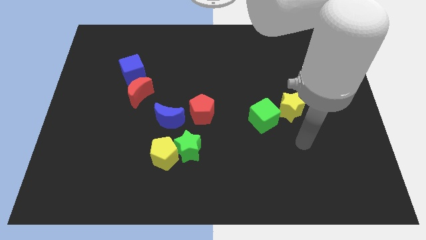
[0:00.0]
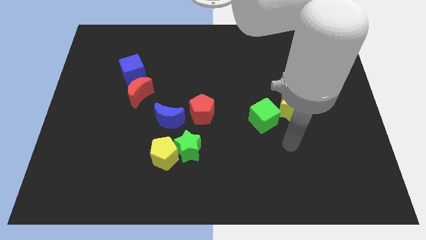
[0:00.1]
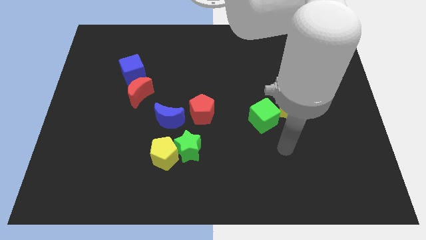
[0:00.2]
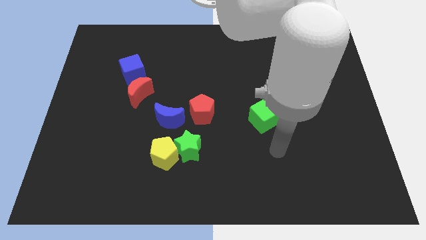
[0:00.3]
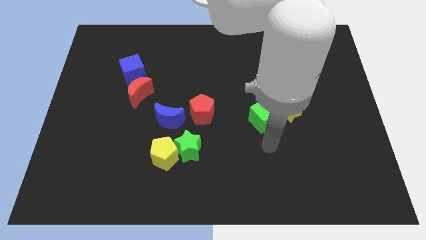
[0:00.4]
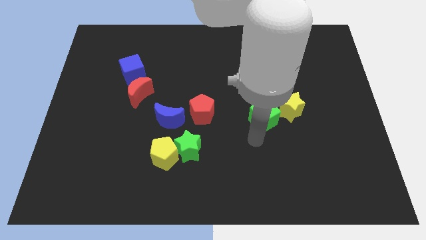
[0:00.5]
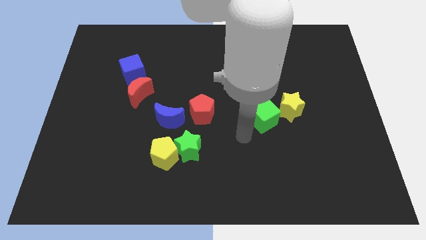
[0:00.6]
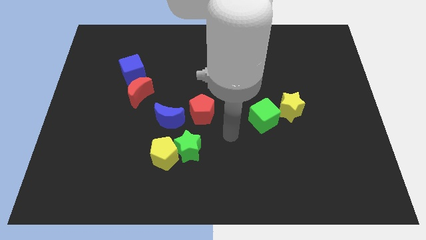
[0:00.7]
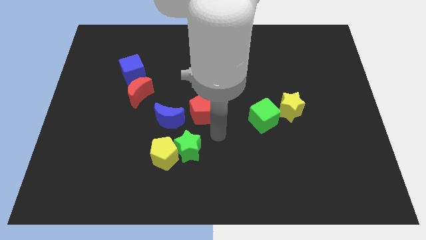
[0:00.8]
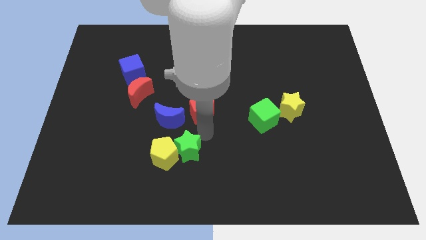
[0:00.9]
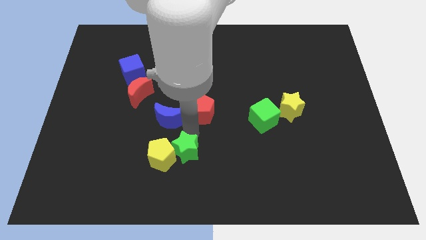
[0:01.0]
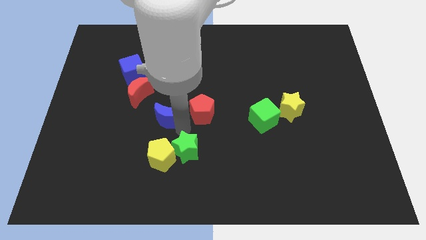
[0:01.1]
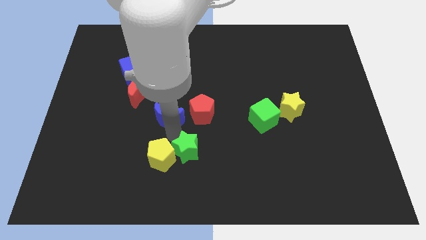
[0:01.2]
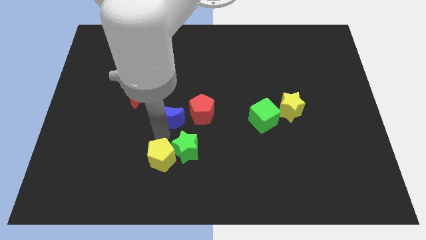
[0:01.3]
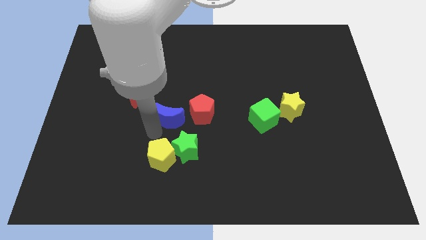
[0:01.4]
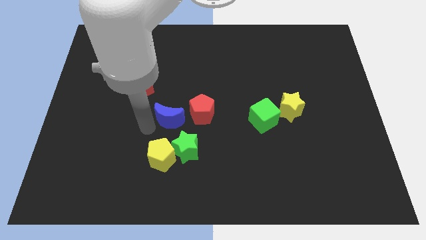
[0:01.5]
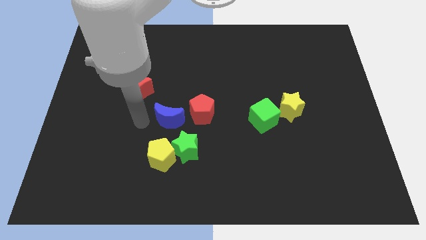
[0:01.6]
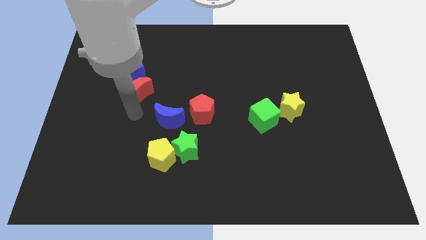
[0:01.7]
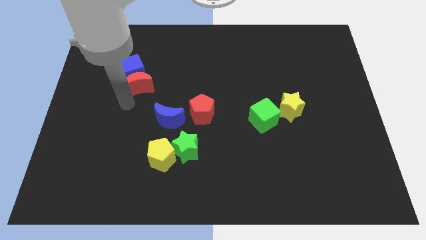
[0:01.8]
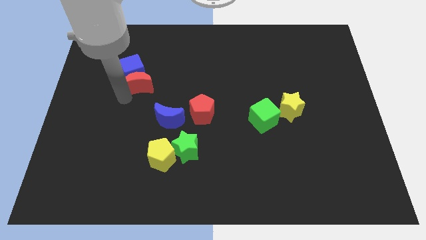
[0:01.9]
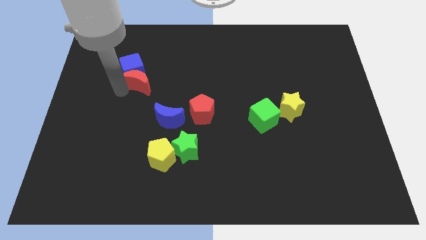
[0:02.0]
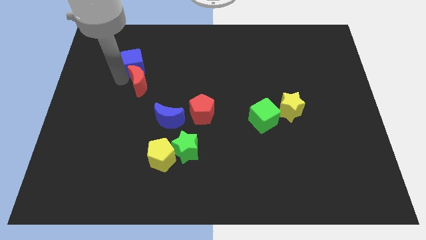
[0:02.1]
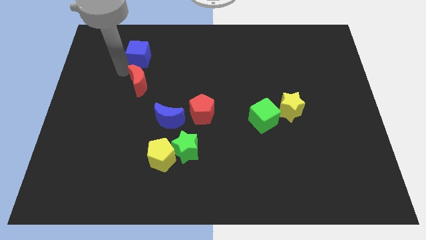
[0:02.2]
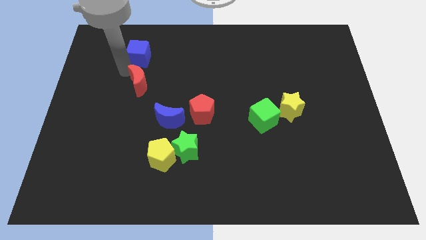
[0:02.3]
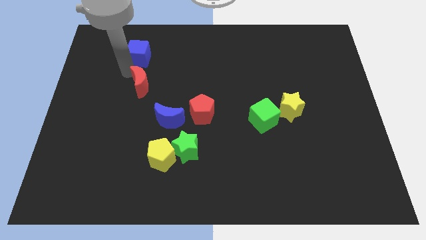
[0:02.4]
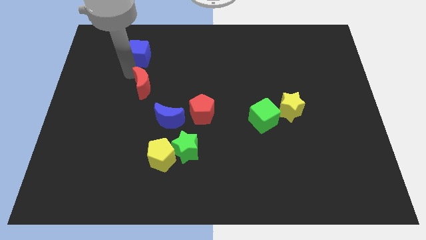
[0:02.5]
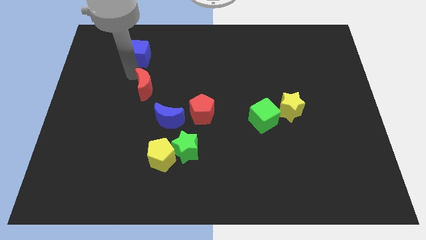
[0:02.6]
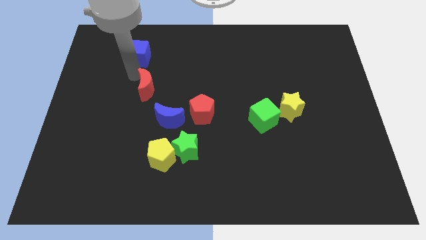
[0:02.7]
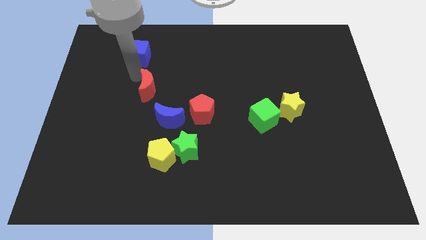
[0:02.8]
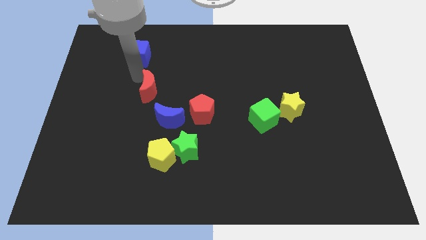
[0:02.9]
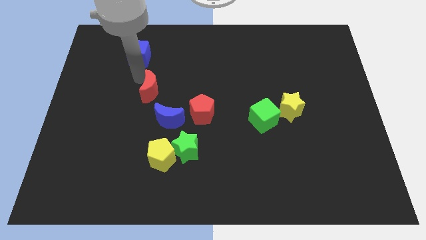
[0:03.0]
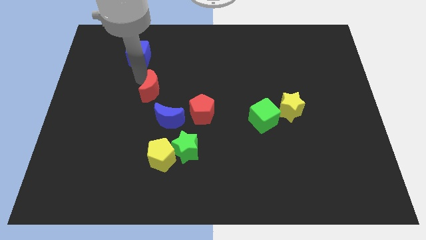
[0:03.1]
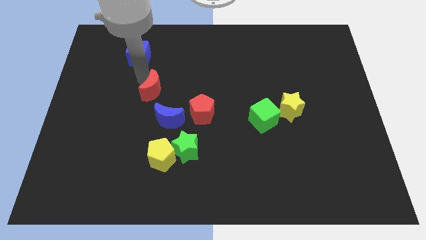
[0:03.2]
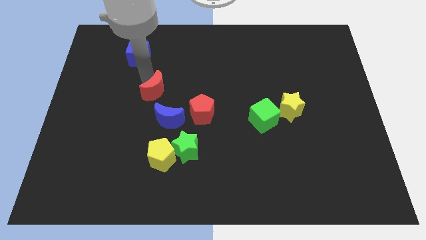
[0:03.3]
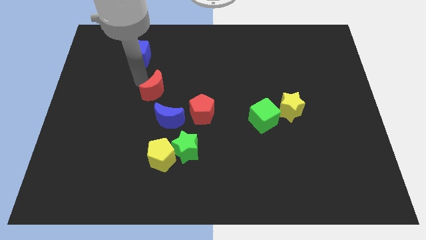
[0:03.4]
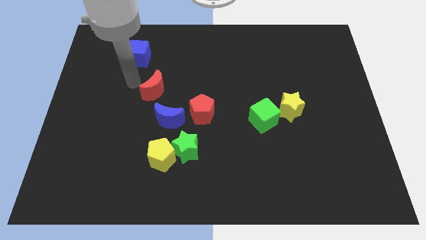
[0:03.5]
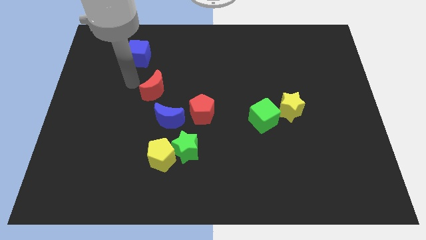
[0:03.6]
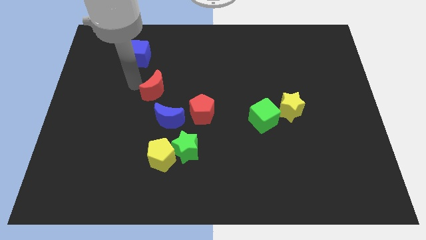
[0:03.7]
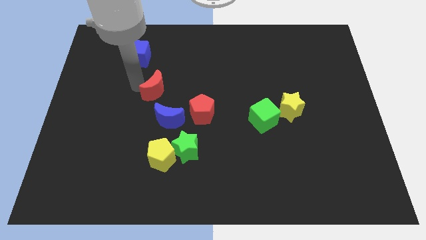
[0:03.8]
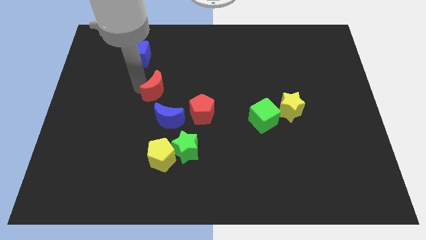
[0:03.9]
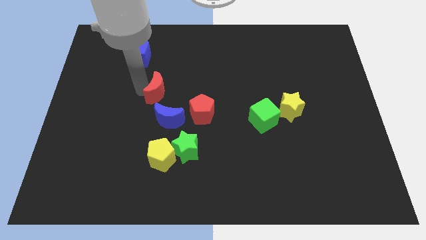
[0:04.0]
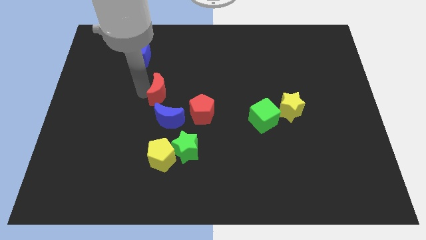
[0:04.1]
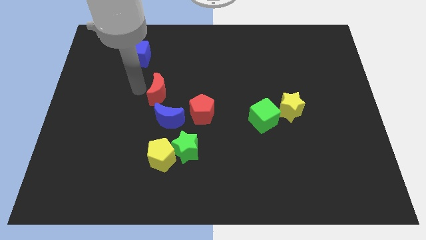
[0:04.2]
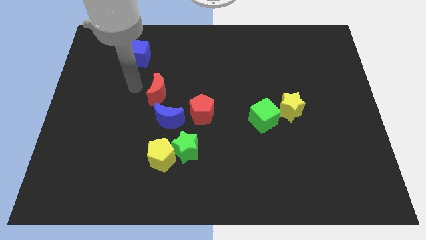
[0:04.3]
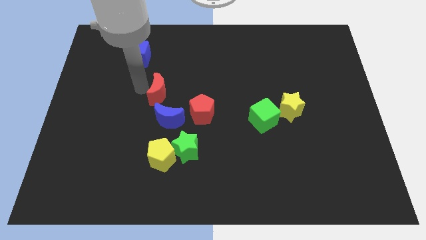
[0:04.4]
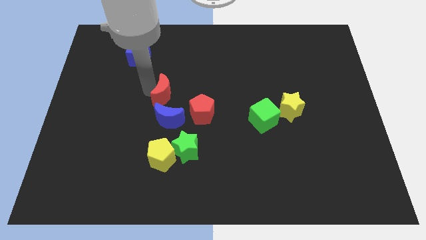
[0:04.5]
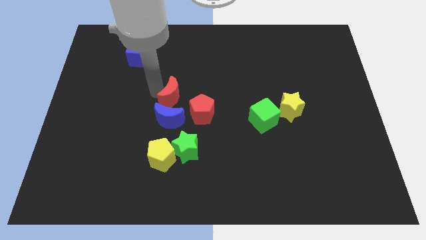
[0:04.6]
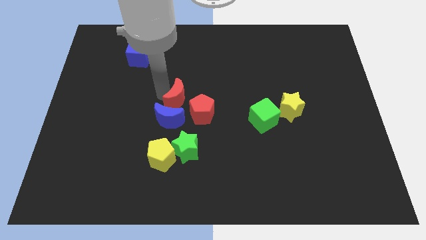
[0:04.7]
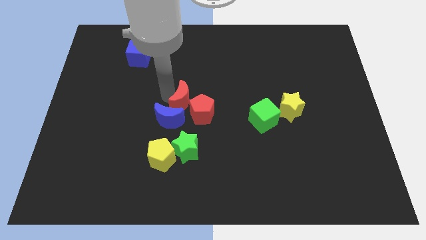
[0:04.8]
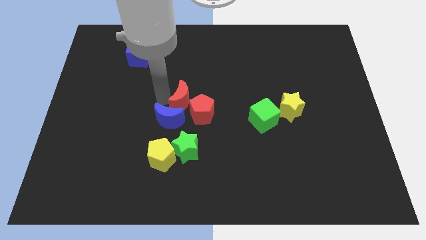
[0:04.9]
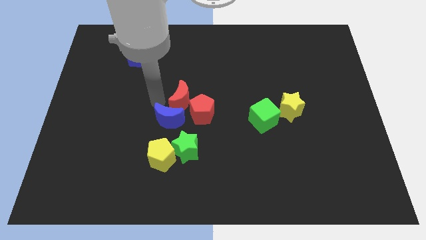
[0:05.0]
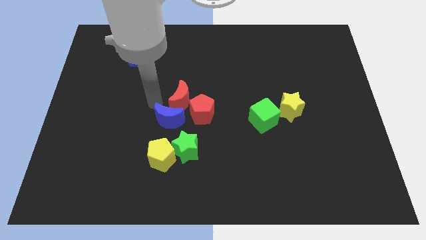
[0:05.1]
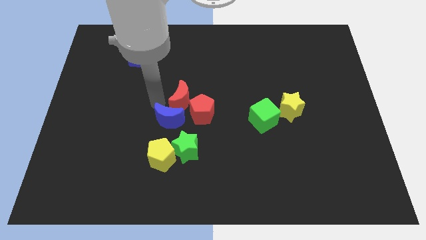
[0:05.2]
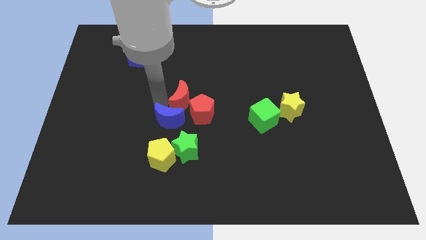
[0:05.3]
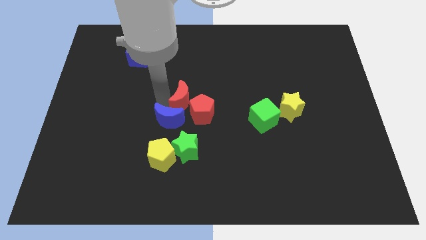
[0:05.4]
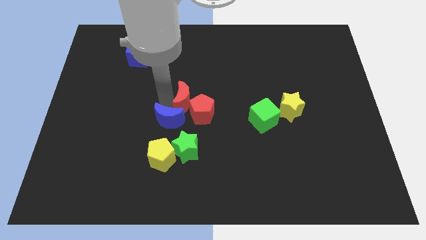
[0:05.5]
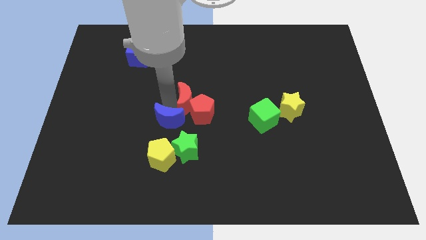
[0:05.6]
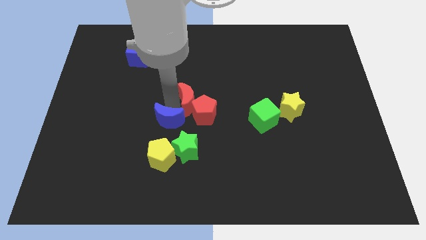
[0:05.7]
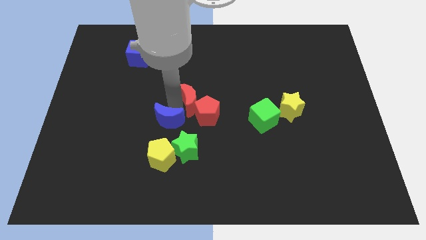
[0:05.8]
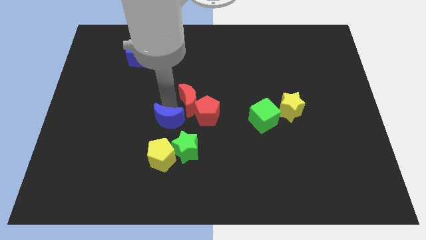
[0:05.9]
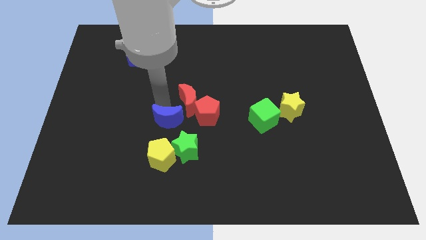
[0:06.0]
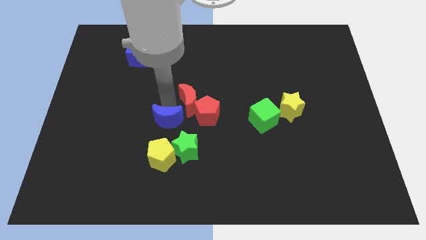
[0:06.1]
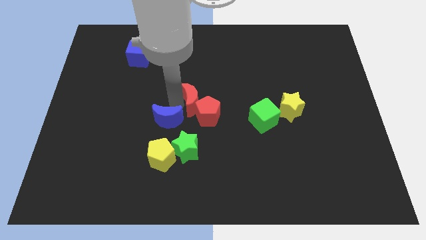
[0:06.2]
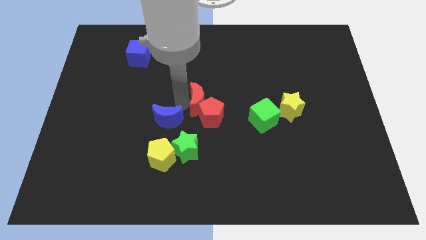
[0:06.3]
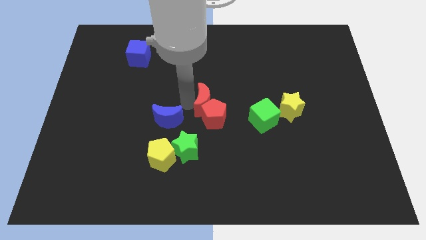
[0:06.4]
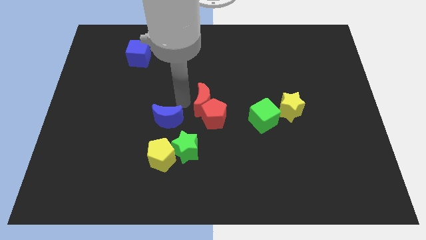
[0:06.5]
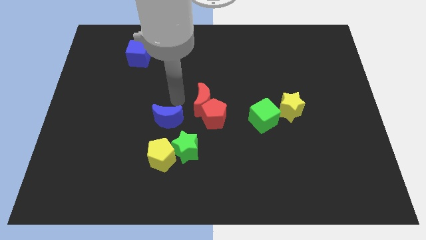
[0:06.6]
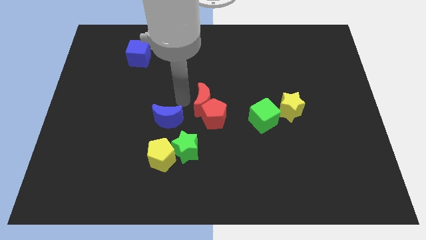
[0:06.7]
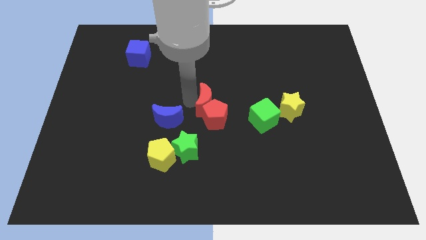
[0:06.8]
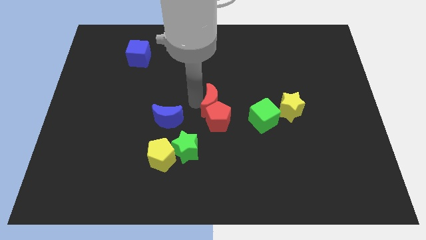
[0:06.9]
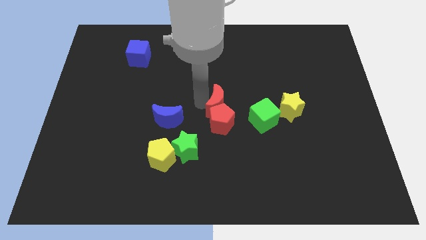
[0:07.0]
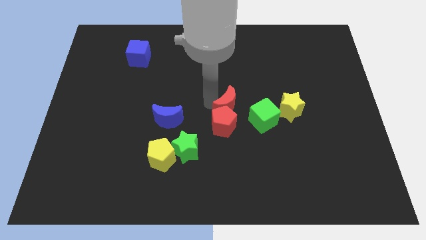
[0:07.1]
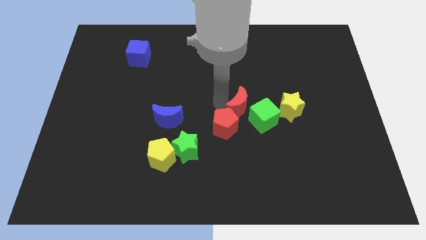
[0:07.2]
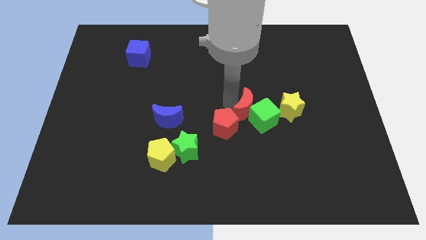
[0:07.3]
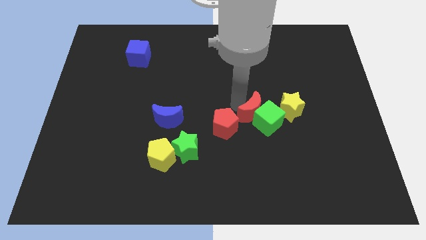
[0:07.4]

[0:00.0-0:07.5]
put the red moon right of the red pentagon
